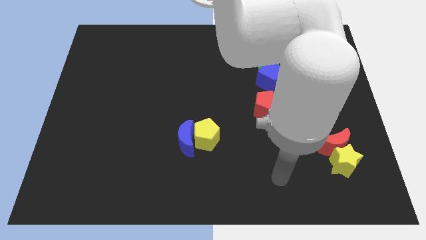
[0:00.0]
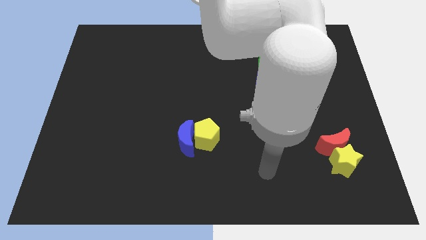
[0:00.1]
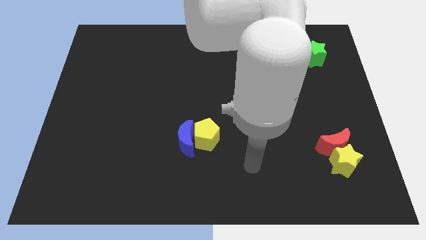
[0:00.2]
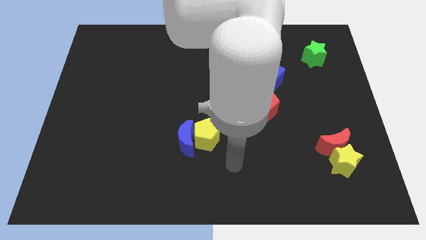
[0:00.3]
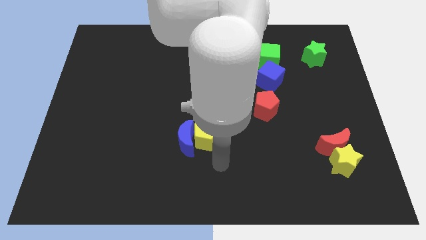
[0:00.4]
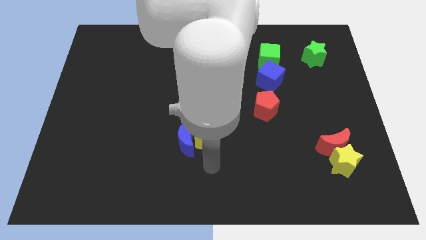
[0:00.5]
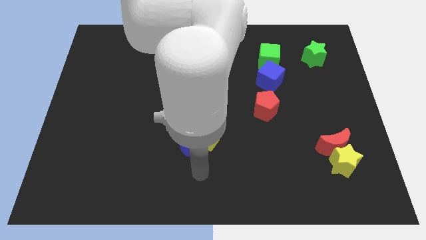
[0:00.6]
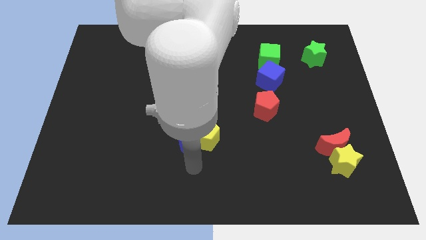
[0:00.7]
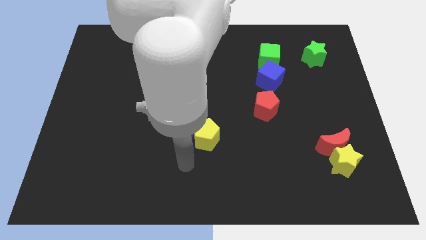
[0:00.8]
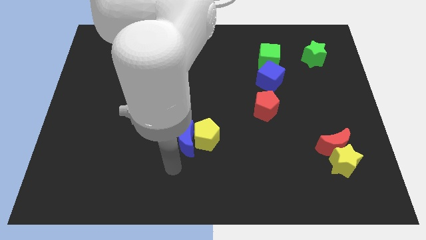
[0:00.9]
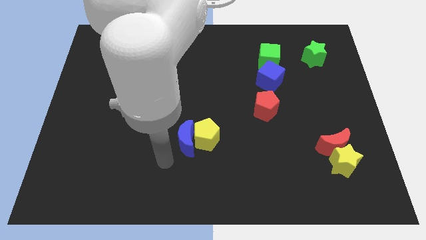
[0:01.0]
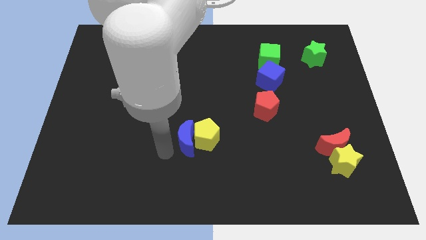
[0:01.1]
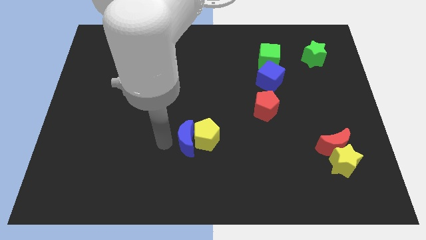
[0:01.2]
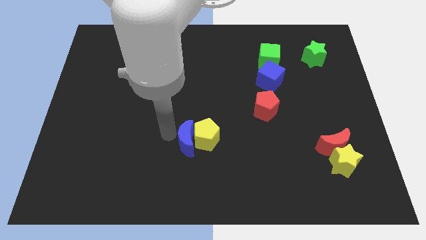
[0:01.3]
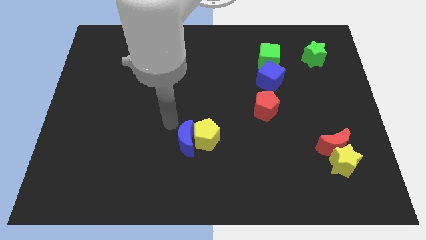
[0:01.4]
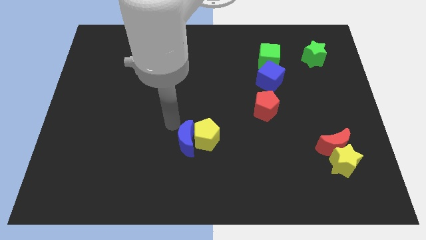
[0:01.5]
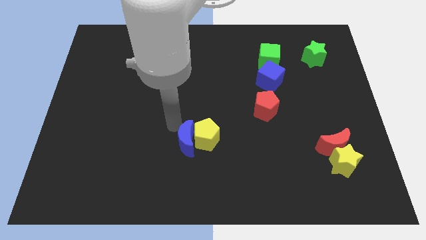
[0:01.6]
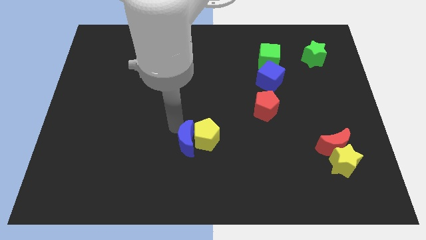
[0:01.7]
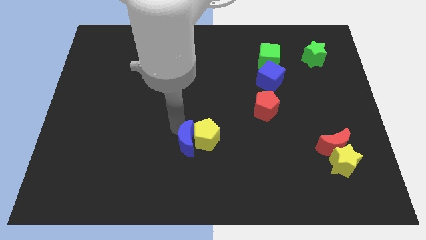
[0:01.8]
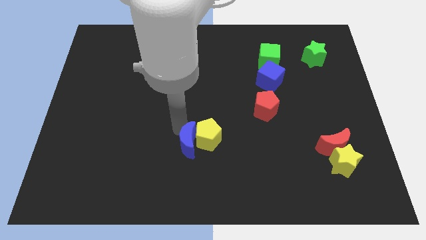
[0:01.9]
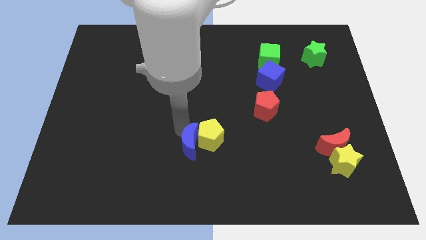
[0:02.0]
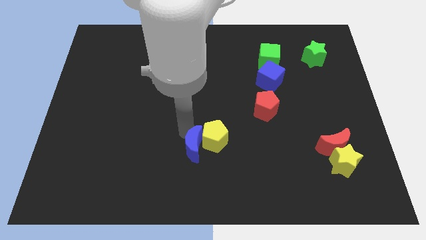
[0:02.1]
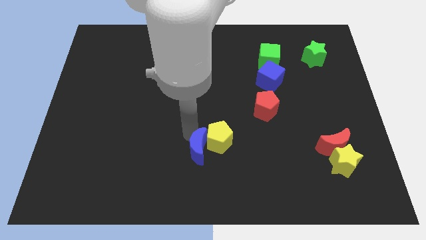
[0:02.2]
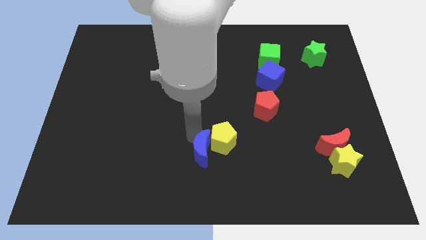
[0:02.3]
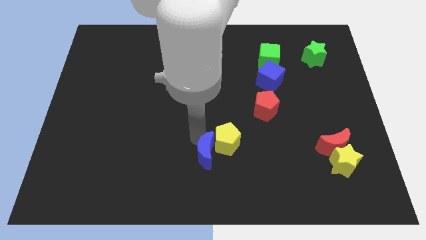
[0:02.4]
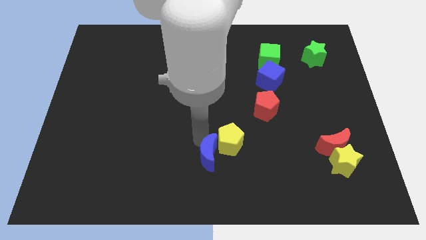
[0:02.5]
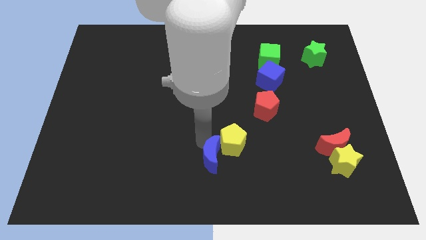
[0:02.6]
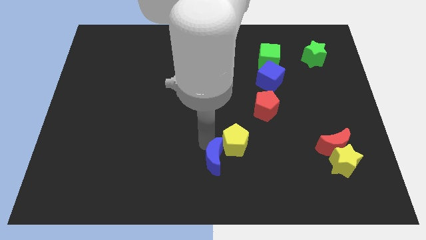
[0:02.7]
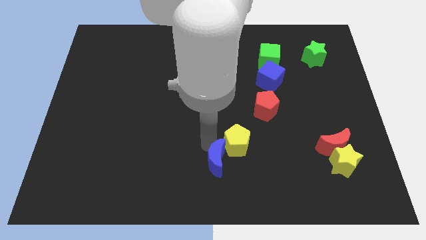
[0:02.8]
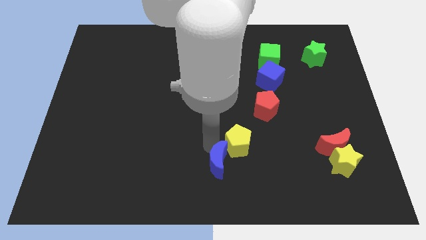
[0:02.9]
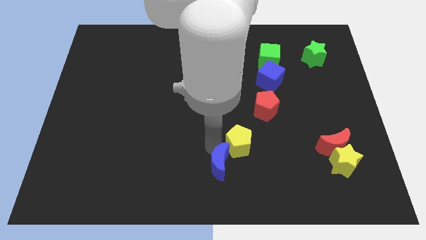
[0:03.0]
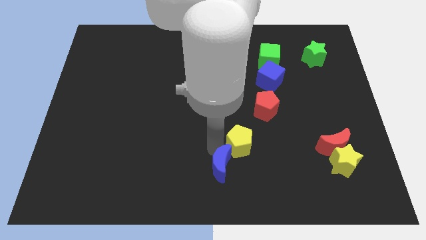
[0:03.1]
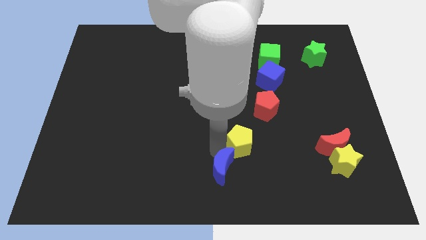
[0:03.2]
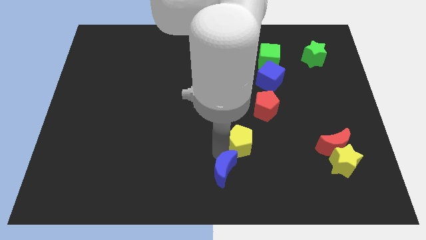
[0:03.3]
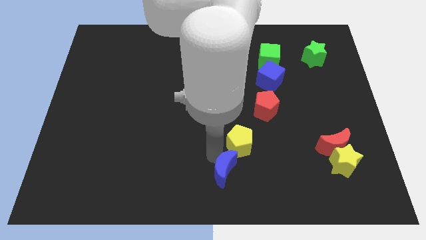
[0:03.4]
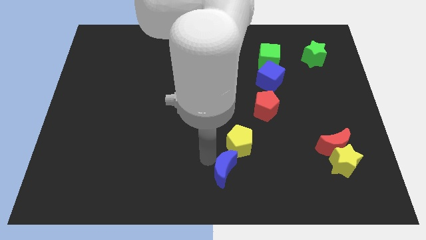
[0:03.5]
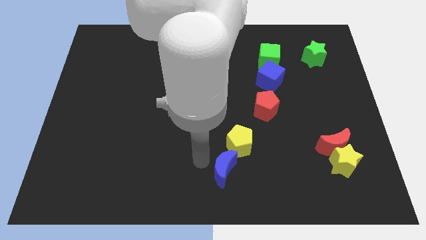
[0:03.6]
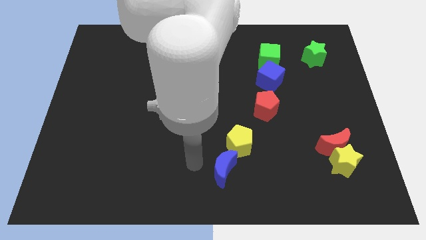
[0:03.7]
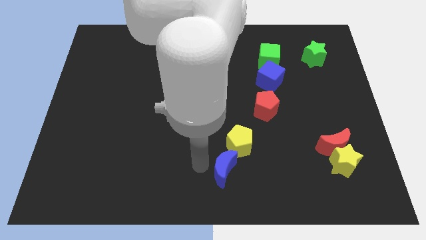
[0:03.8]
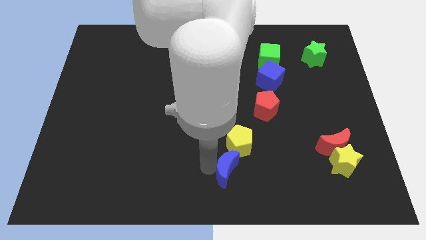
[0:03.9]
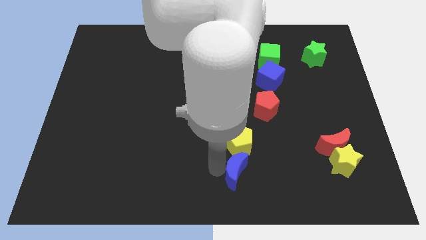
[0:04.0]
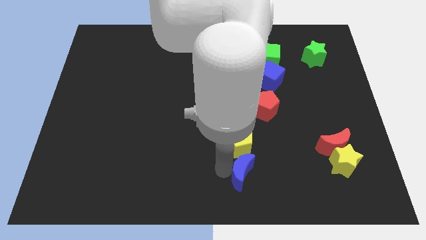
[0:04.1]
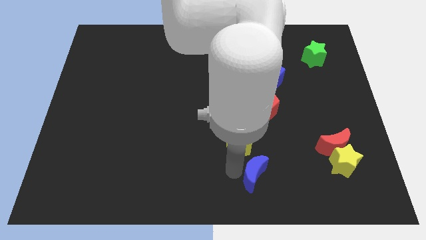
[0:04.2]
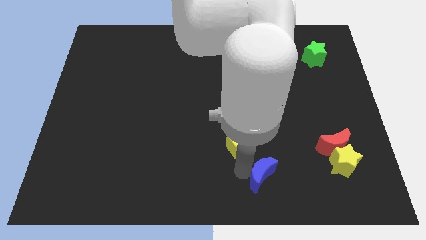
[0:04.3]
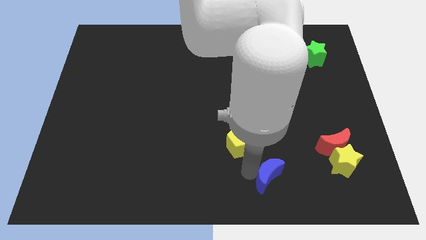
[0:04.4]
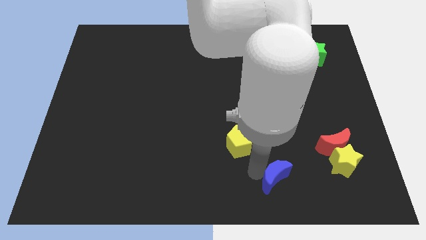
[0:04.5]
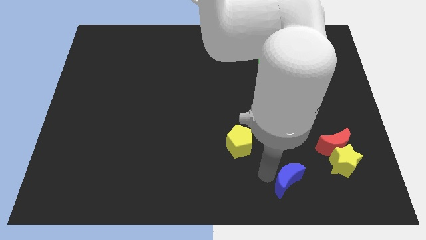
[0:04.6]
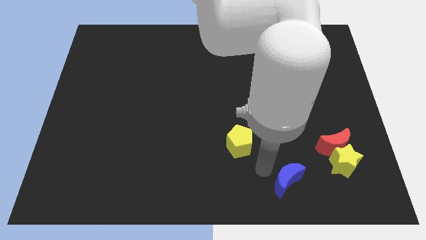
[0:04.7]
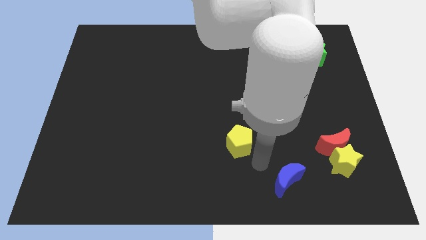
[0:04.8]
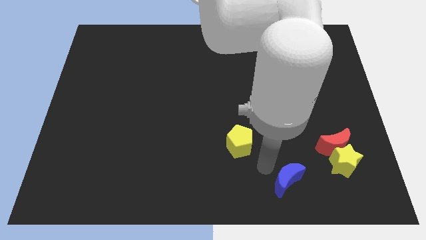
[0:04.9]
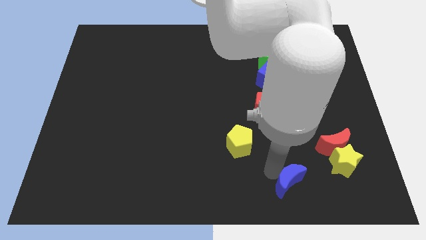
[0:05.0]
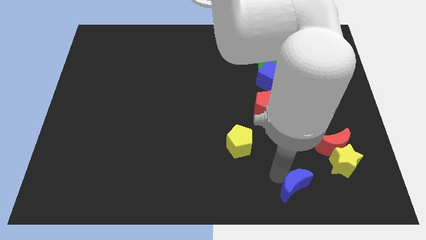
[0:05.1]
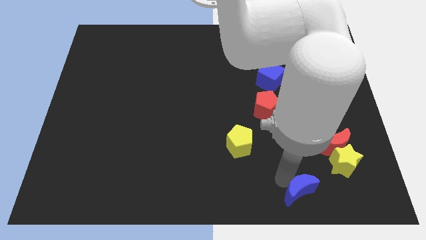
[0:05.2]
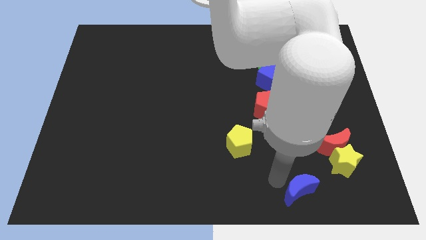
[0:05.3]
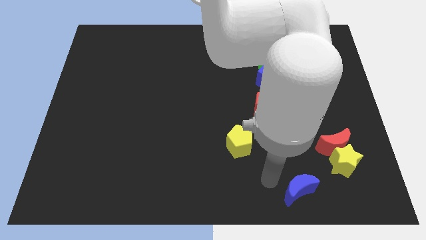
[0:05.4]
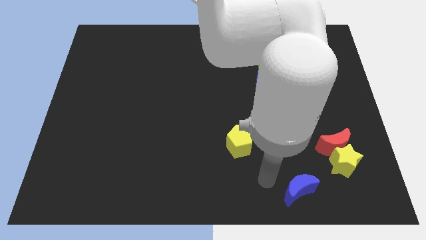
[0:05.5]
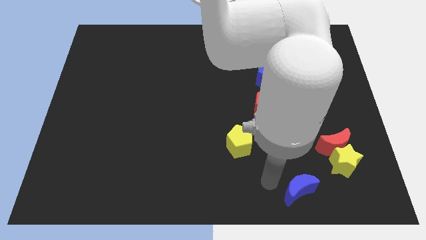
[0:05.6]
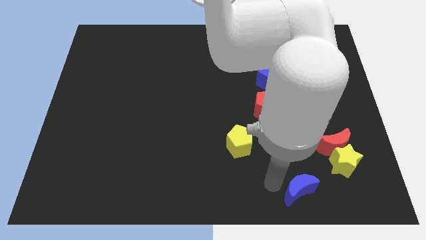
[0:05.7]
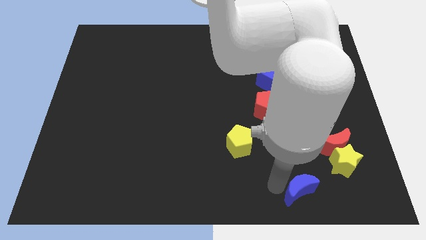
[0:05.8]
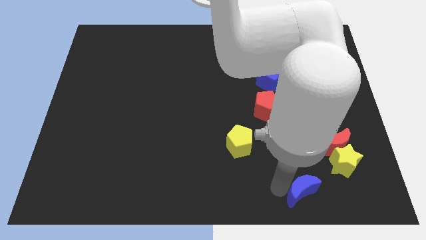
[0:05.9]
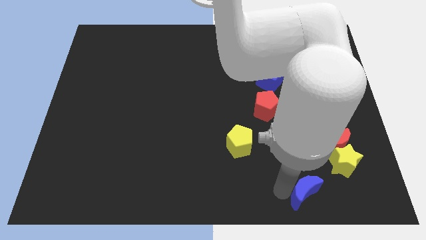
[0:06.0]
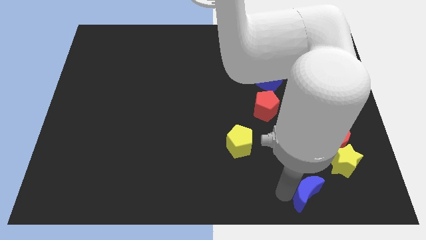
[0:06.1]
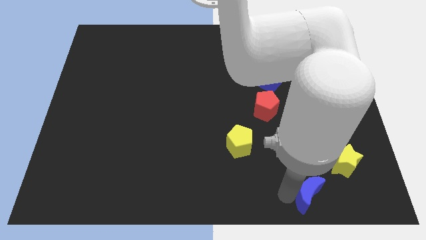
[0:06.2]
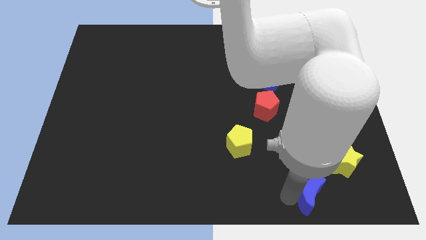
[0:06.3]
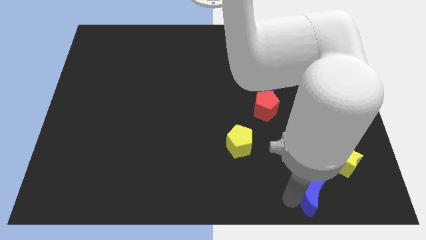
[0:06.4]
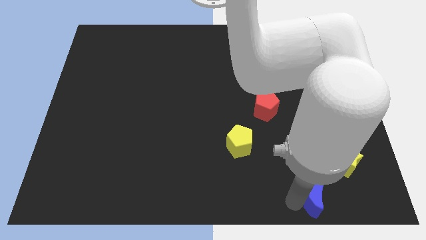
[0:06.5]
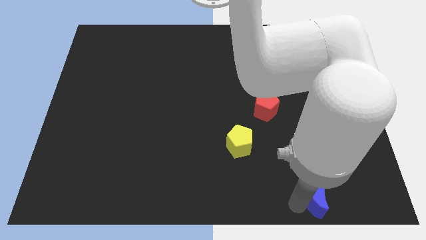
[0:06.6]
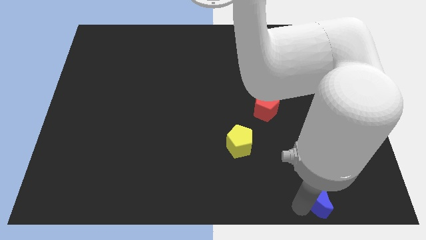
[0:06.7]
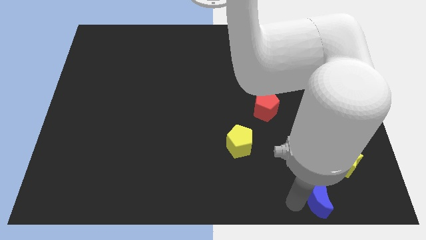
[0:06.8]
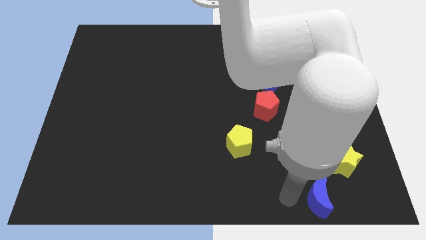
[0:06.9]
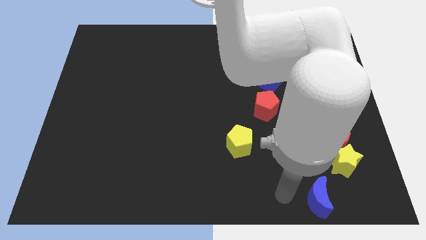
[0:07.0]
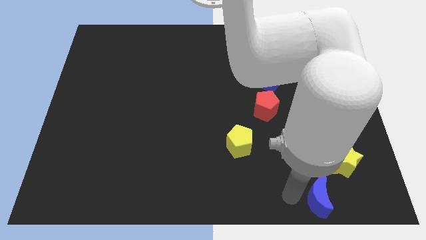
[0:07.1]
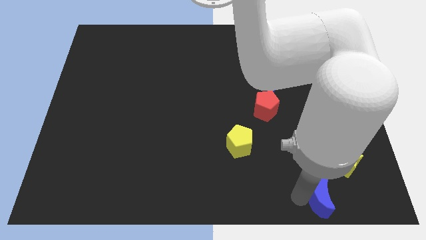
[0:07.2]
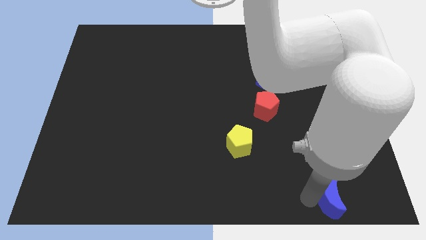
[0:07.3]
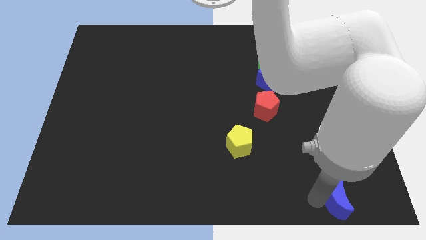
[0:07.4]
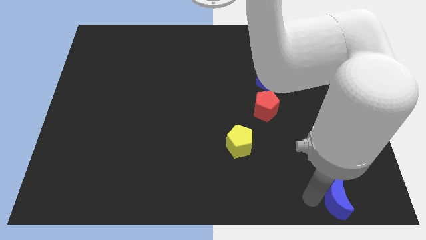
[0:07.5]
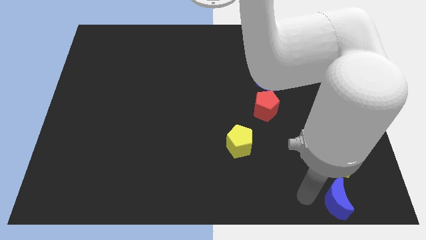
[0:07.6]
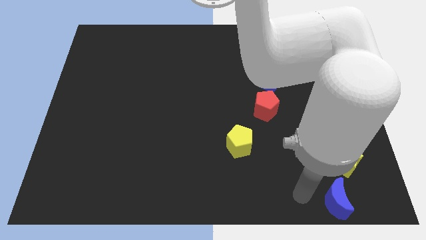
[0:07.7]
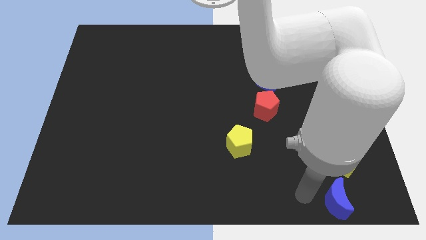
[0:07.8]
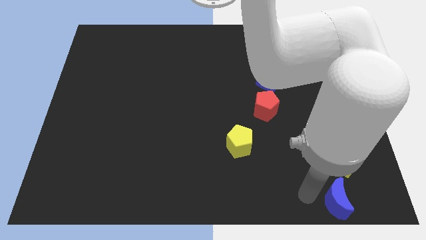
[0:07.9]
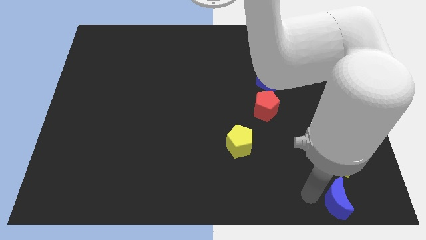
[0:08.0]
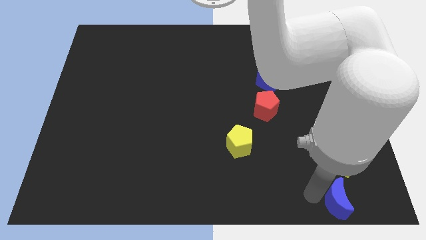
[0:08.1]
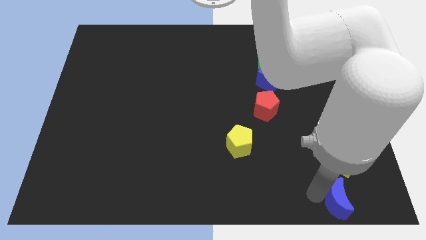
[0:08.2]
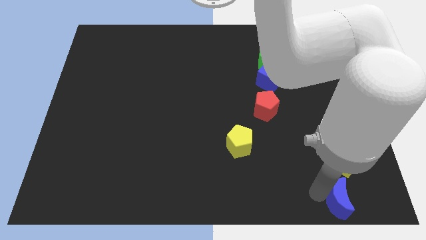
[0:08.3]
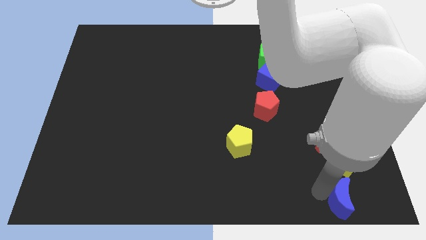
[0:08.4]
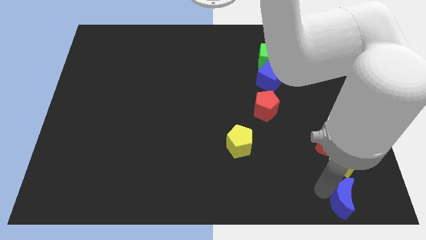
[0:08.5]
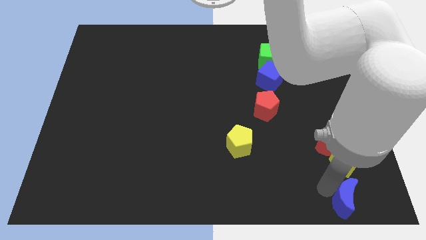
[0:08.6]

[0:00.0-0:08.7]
push the blue moon to the bottom right corner
